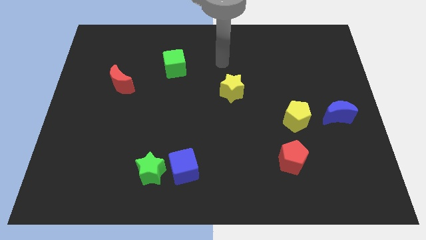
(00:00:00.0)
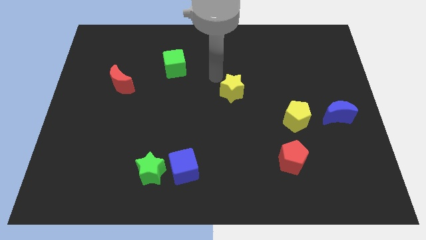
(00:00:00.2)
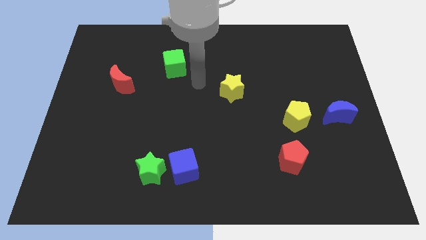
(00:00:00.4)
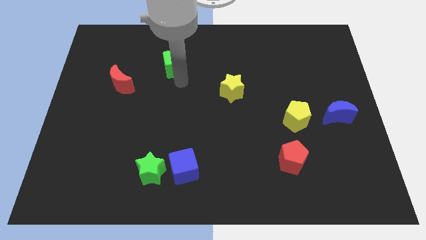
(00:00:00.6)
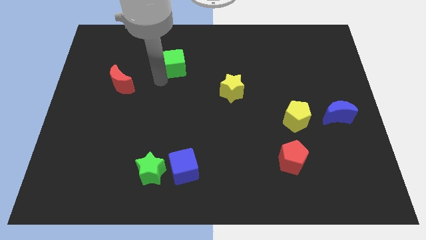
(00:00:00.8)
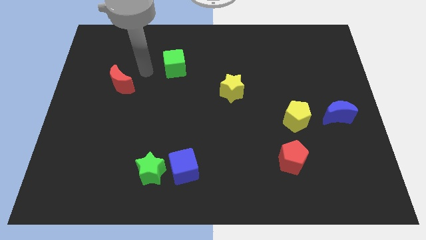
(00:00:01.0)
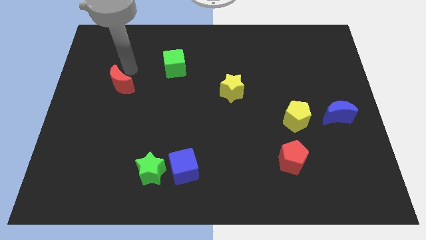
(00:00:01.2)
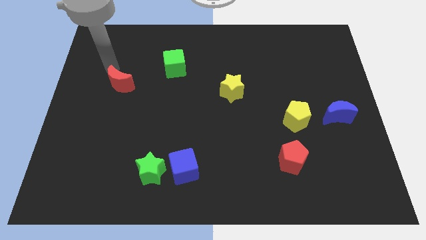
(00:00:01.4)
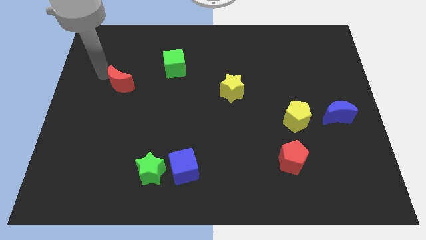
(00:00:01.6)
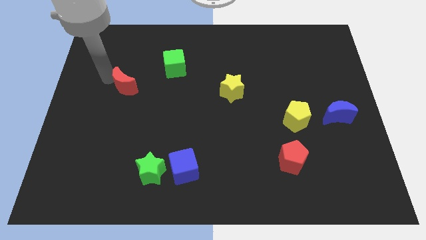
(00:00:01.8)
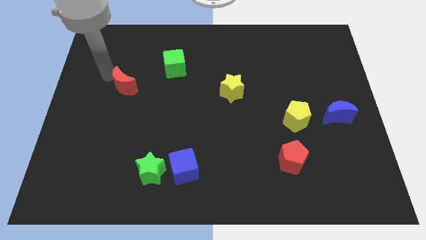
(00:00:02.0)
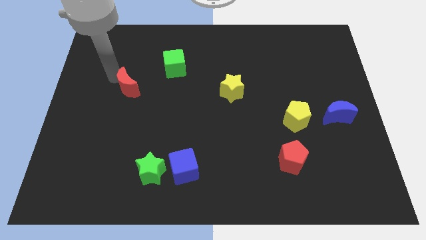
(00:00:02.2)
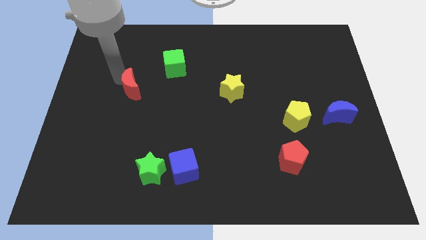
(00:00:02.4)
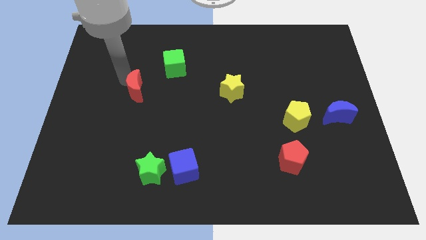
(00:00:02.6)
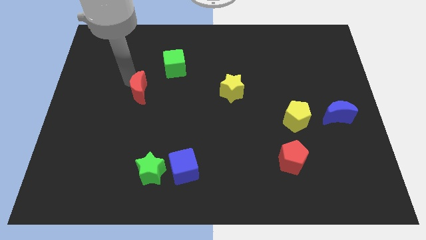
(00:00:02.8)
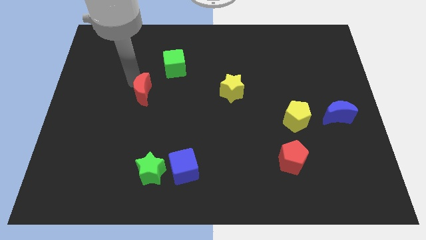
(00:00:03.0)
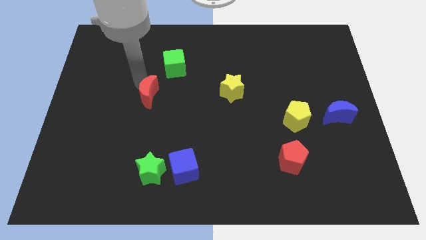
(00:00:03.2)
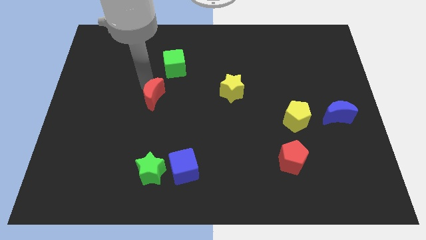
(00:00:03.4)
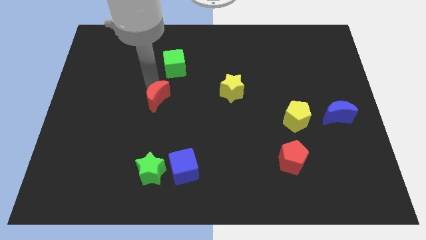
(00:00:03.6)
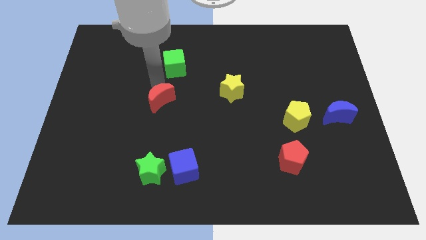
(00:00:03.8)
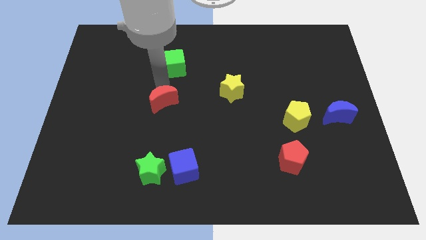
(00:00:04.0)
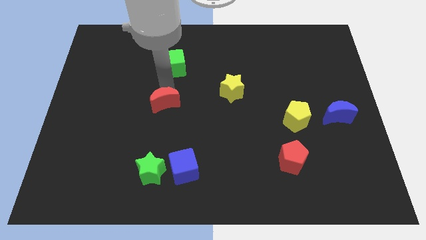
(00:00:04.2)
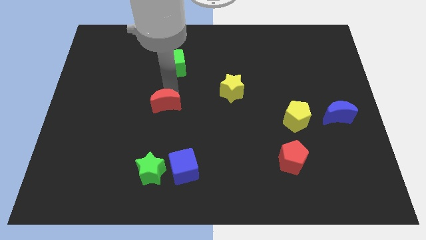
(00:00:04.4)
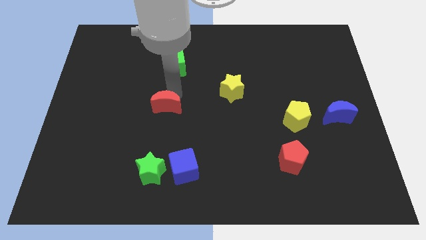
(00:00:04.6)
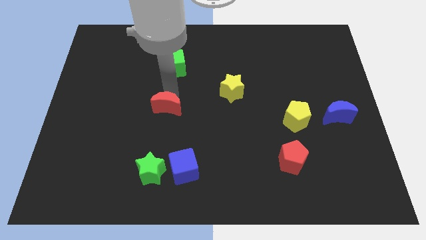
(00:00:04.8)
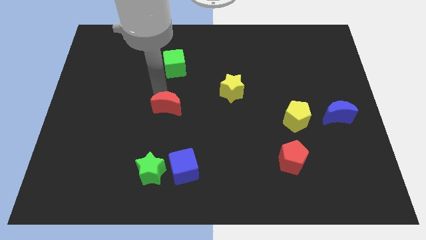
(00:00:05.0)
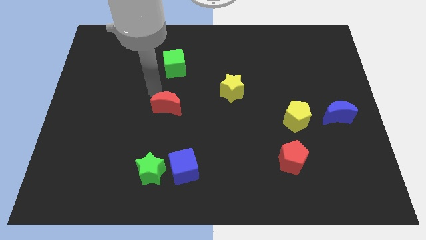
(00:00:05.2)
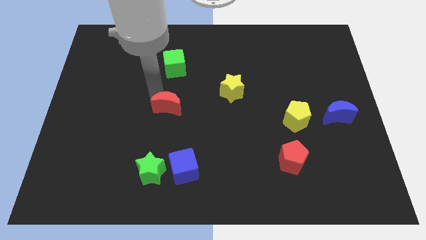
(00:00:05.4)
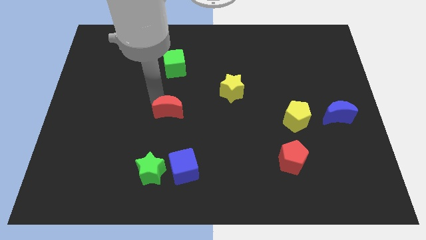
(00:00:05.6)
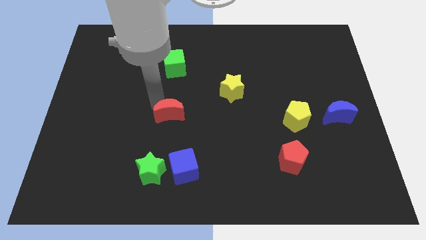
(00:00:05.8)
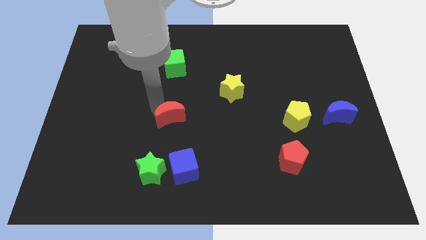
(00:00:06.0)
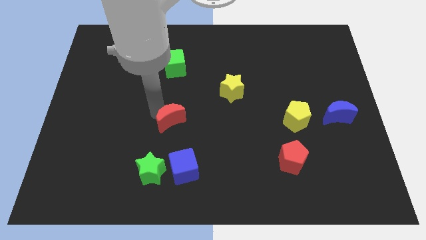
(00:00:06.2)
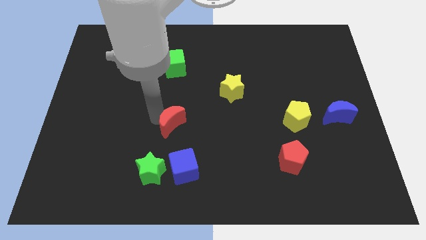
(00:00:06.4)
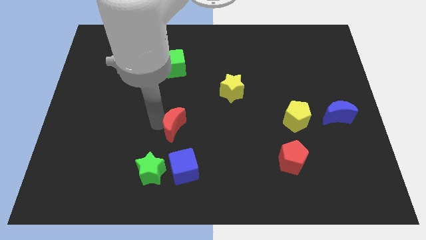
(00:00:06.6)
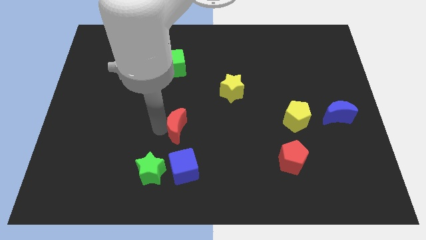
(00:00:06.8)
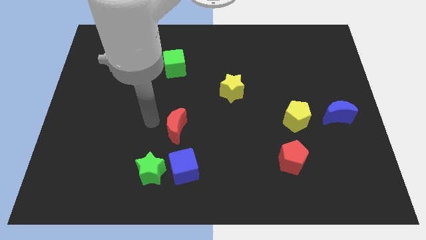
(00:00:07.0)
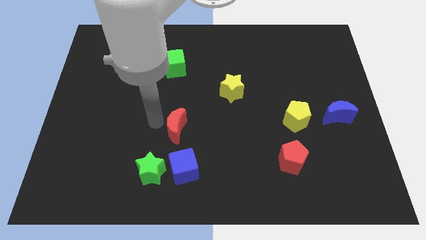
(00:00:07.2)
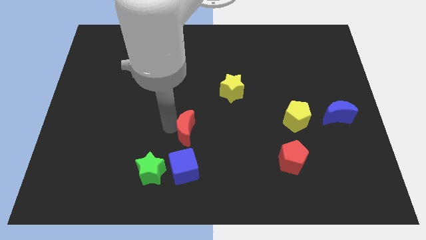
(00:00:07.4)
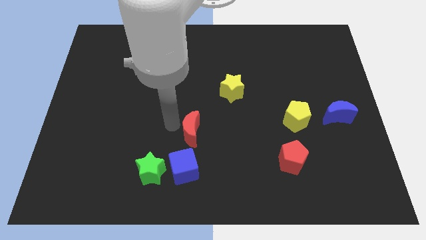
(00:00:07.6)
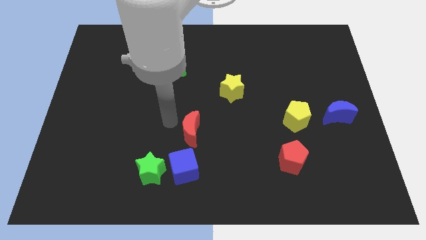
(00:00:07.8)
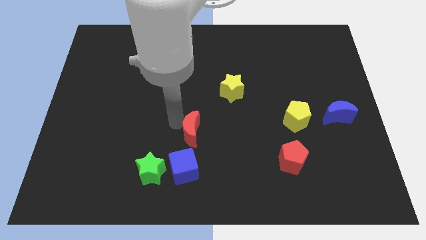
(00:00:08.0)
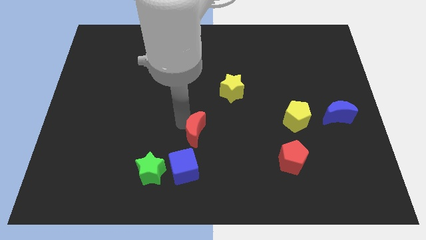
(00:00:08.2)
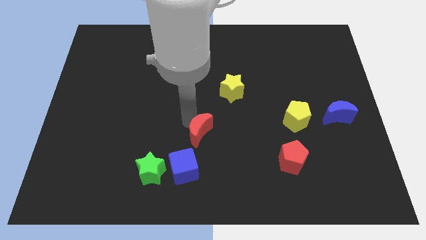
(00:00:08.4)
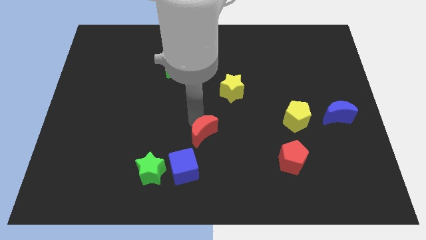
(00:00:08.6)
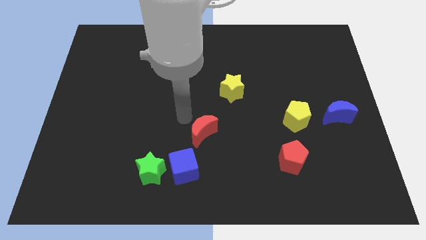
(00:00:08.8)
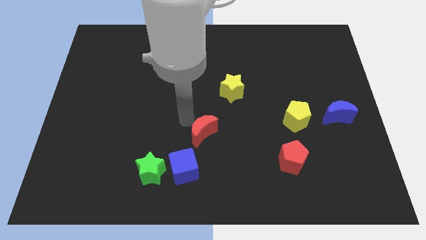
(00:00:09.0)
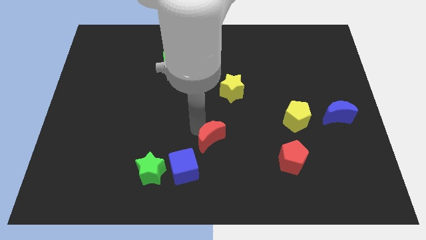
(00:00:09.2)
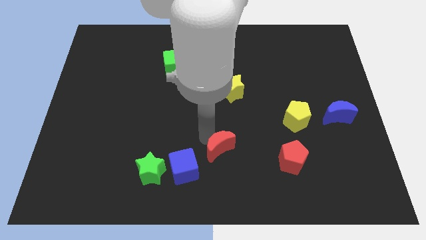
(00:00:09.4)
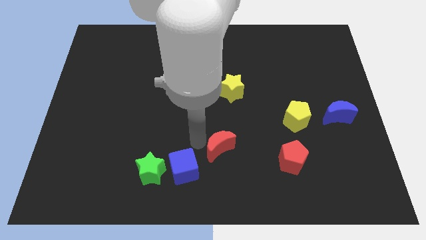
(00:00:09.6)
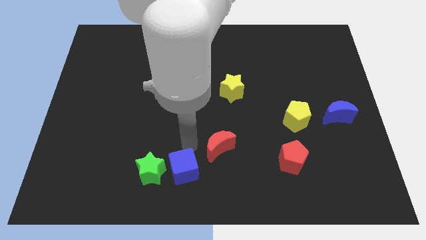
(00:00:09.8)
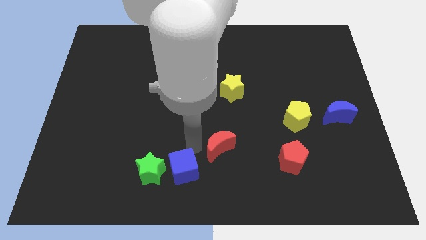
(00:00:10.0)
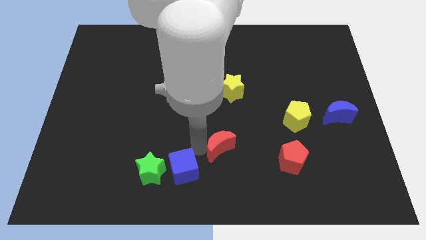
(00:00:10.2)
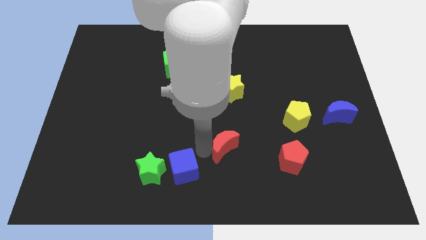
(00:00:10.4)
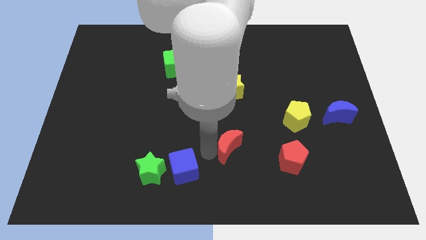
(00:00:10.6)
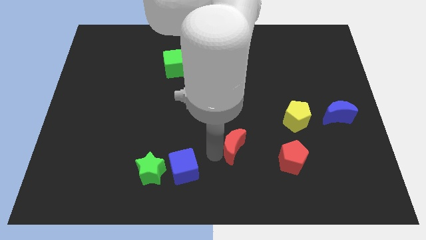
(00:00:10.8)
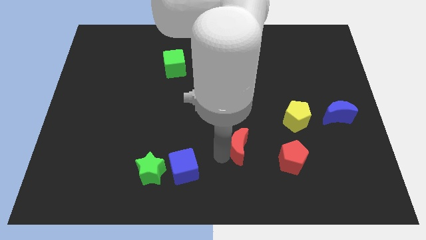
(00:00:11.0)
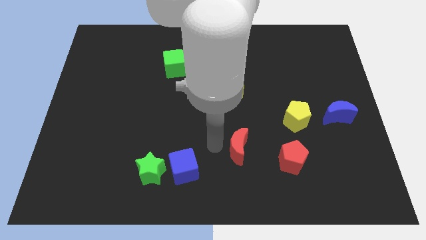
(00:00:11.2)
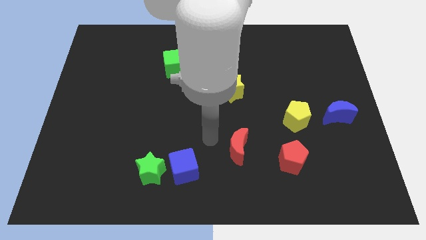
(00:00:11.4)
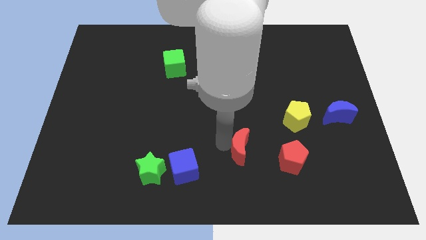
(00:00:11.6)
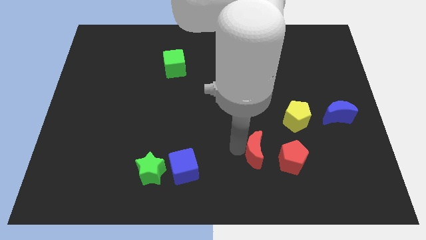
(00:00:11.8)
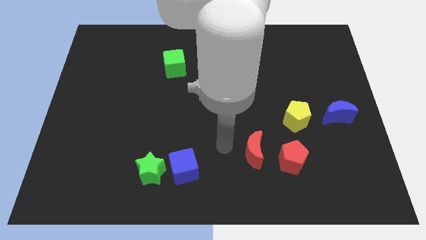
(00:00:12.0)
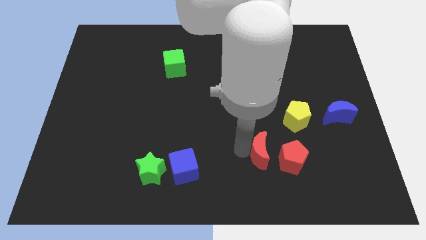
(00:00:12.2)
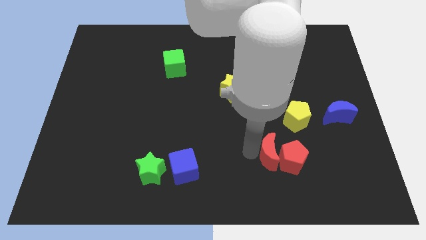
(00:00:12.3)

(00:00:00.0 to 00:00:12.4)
push the red moon towards the red pentagon
